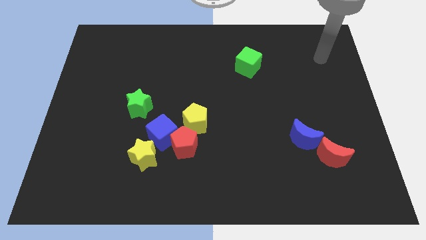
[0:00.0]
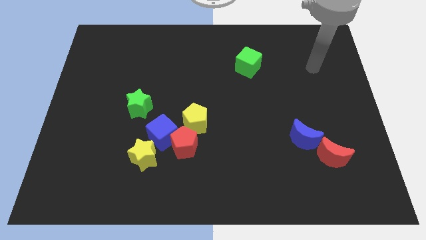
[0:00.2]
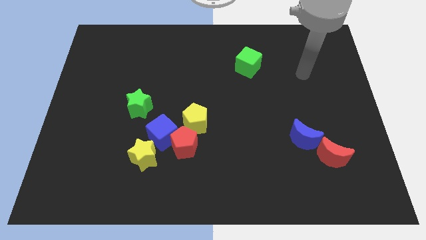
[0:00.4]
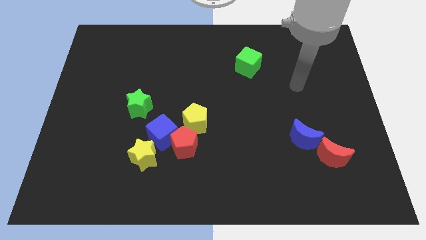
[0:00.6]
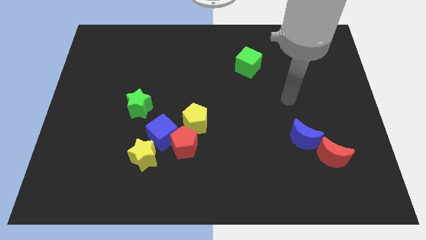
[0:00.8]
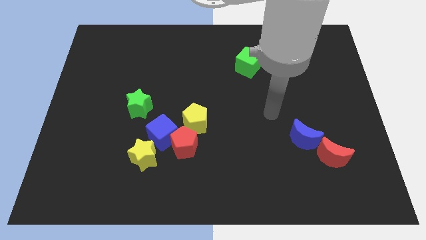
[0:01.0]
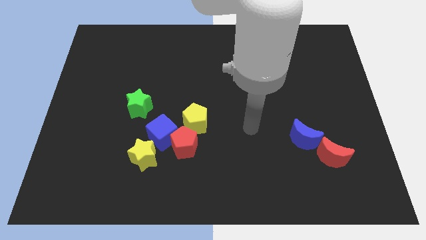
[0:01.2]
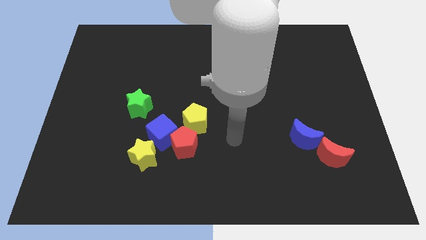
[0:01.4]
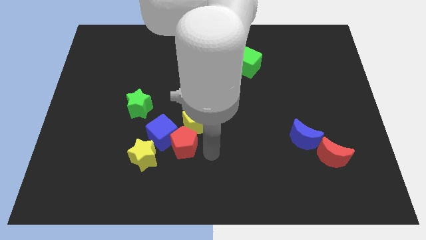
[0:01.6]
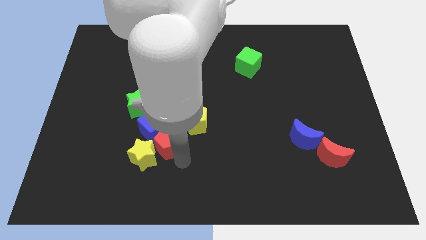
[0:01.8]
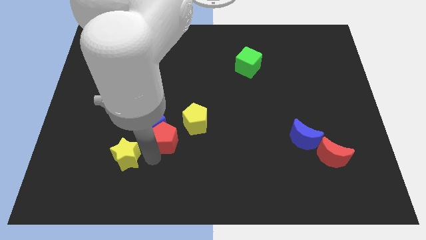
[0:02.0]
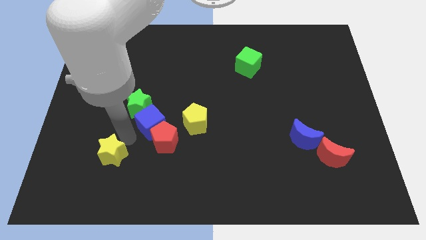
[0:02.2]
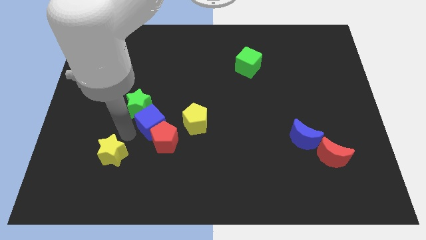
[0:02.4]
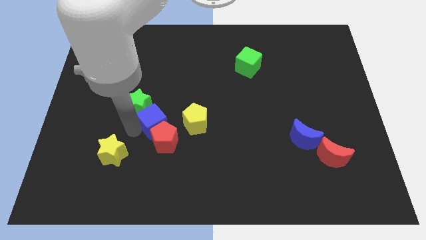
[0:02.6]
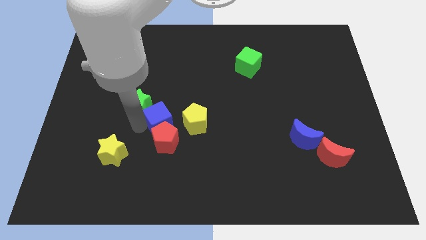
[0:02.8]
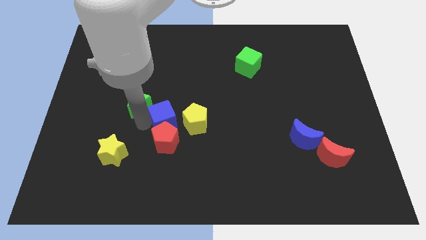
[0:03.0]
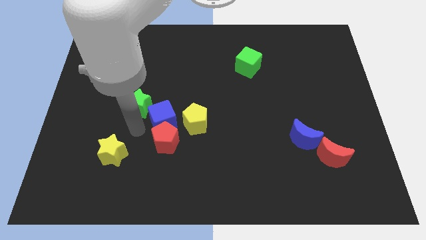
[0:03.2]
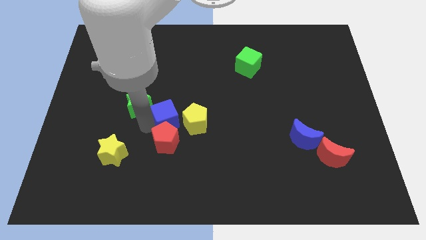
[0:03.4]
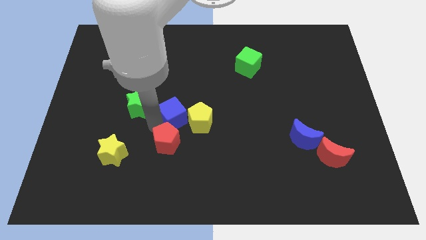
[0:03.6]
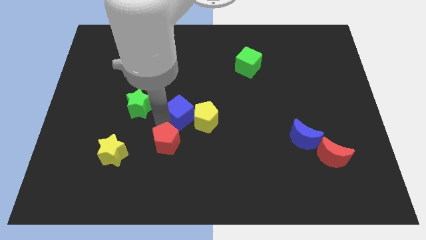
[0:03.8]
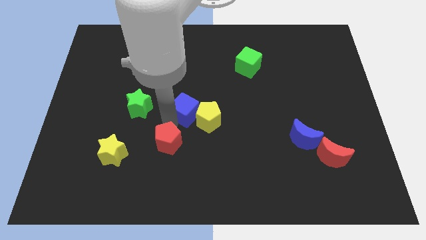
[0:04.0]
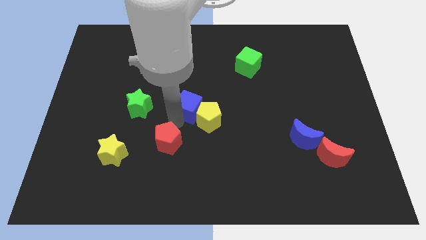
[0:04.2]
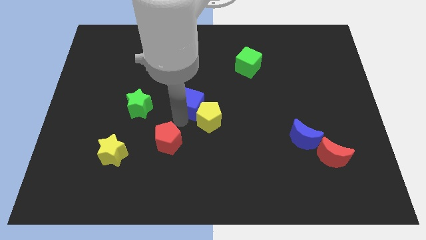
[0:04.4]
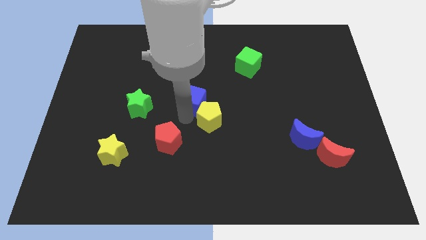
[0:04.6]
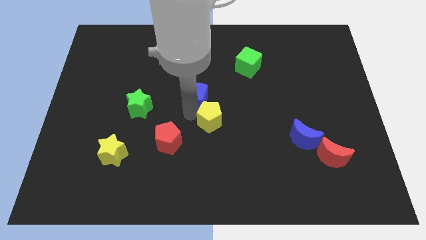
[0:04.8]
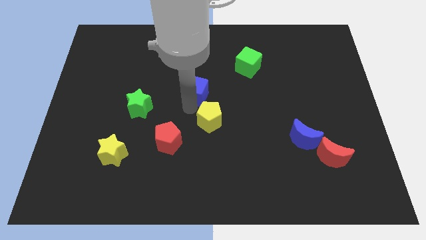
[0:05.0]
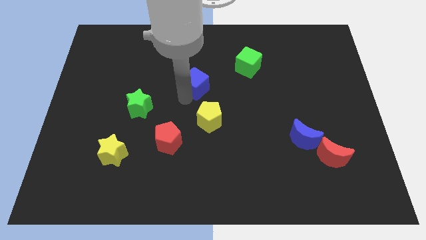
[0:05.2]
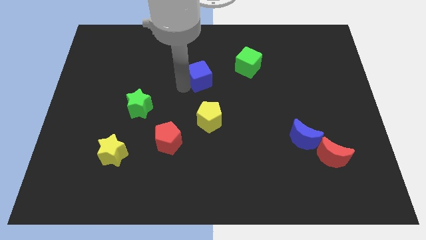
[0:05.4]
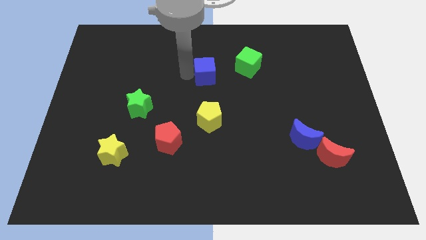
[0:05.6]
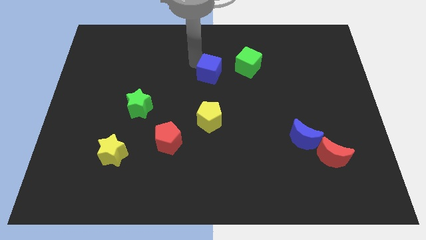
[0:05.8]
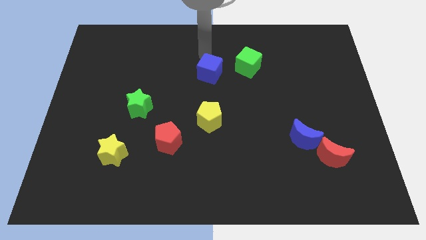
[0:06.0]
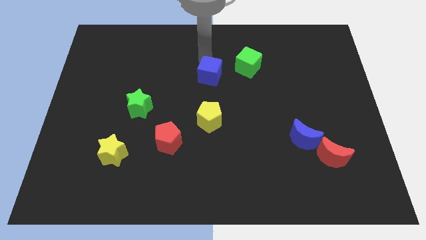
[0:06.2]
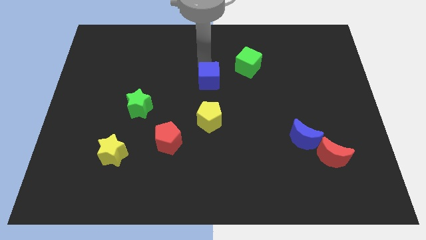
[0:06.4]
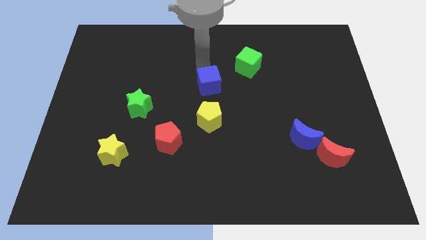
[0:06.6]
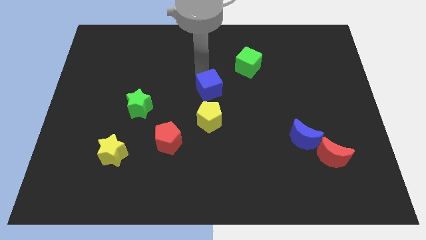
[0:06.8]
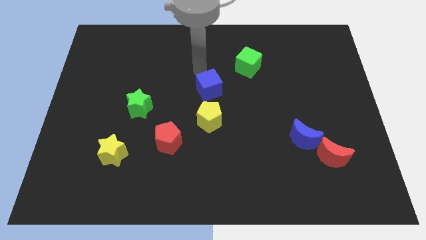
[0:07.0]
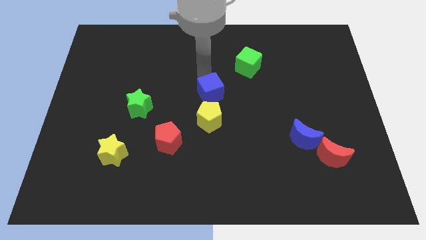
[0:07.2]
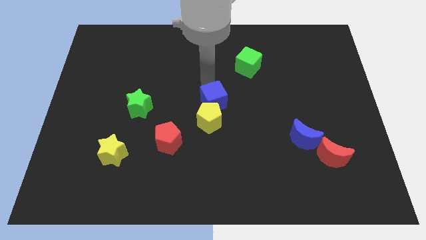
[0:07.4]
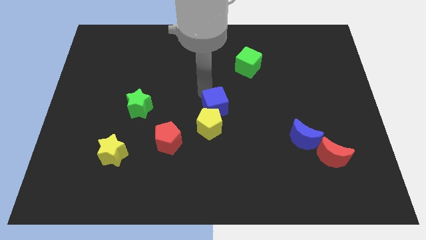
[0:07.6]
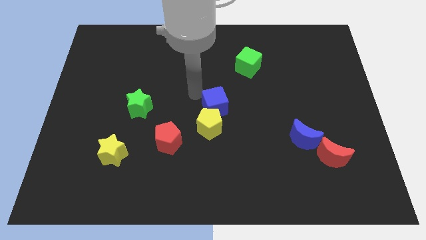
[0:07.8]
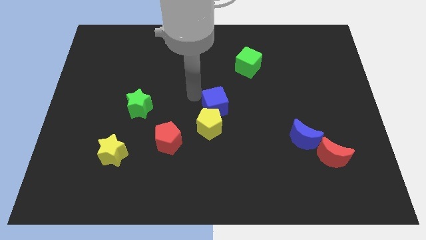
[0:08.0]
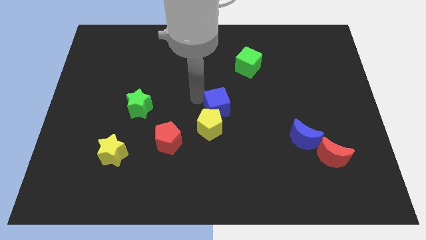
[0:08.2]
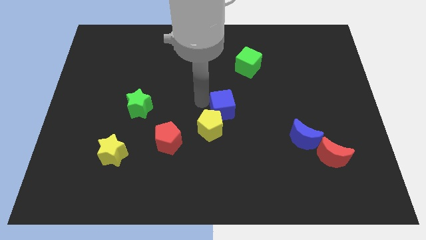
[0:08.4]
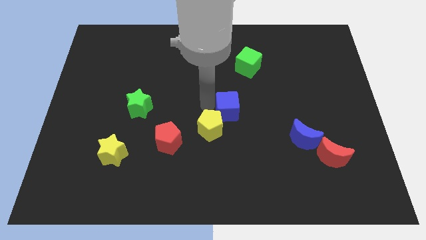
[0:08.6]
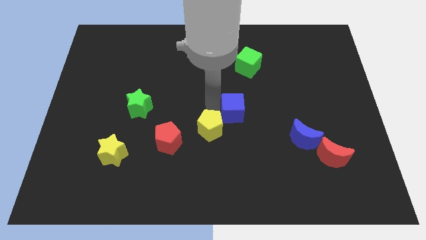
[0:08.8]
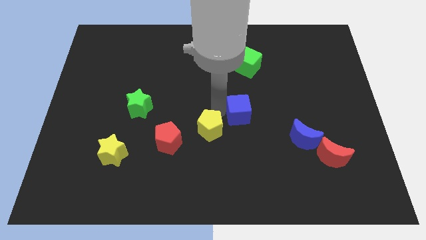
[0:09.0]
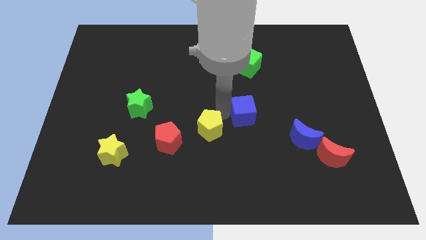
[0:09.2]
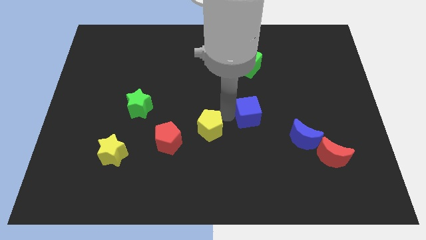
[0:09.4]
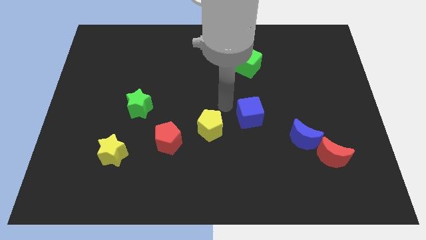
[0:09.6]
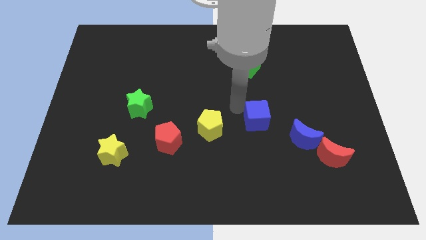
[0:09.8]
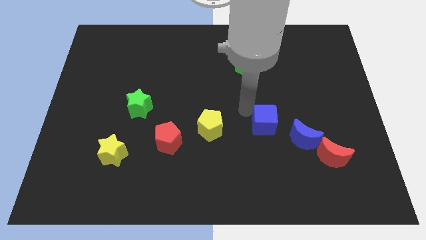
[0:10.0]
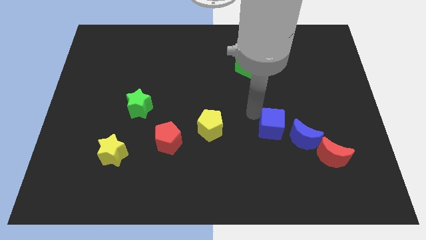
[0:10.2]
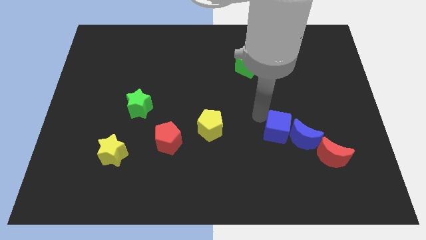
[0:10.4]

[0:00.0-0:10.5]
move the blue cube next to the blue moon

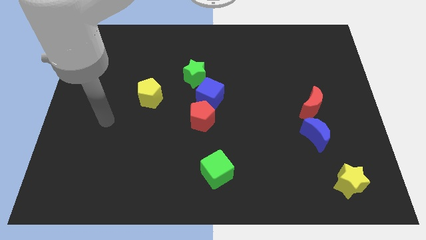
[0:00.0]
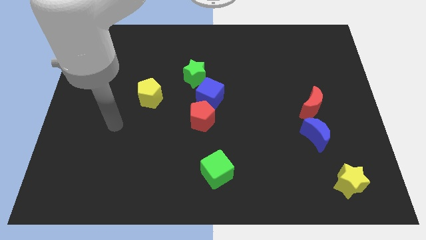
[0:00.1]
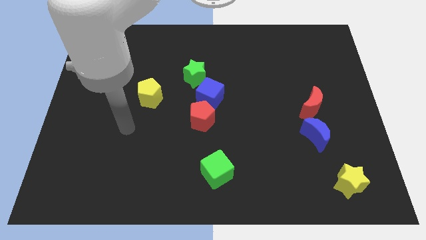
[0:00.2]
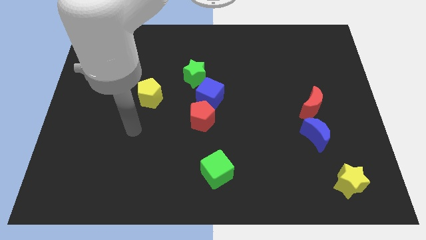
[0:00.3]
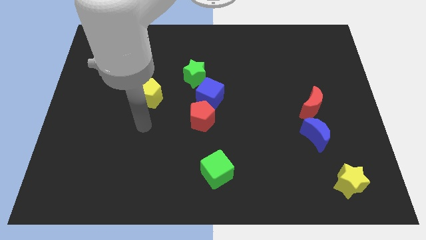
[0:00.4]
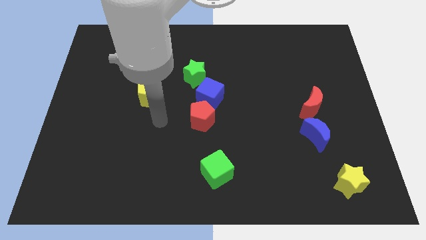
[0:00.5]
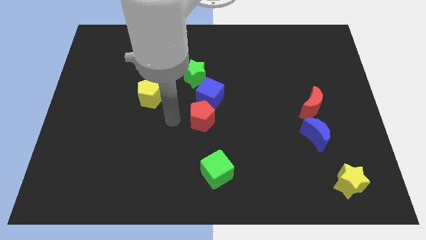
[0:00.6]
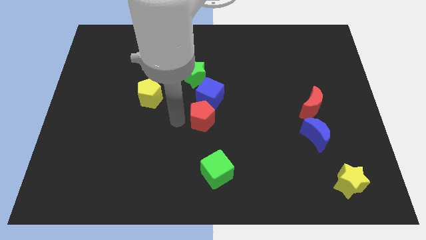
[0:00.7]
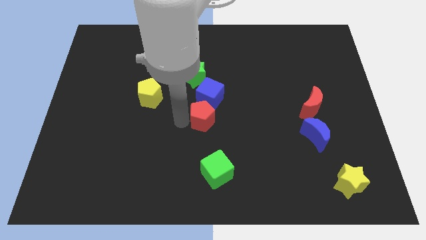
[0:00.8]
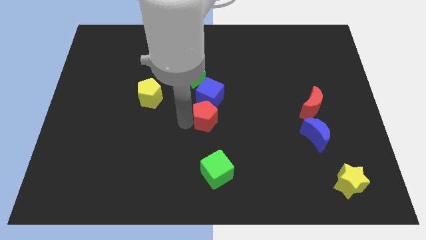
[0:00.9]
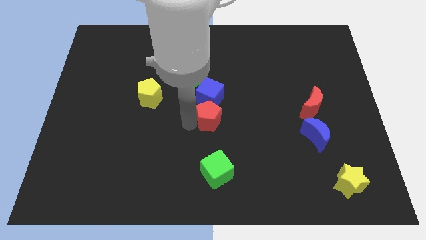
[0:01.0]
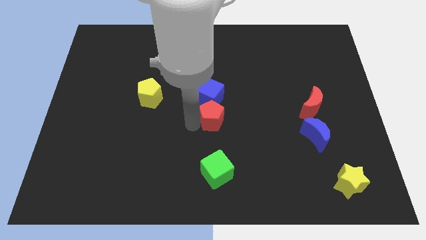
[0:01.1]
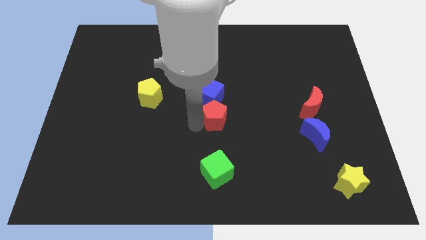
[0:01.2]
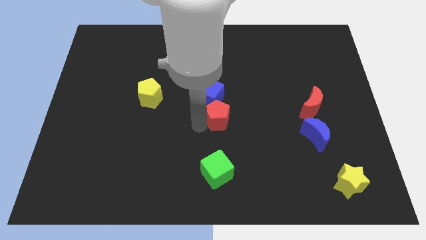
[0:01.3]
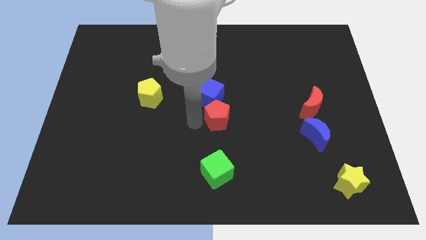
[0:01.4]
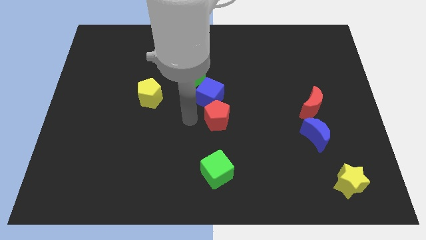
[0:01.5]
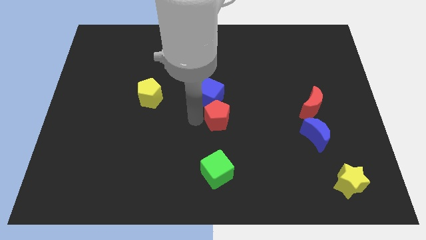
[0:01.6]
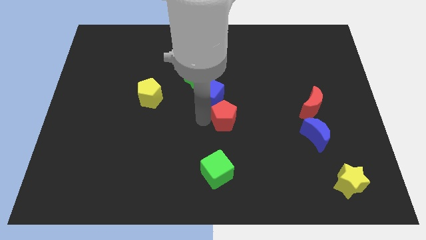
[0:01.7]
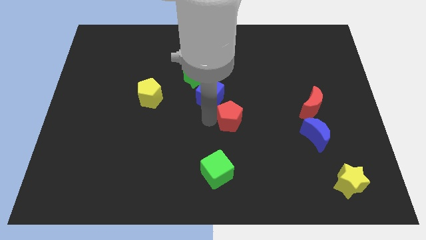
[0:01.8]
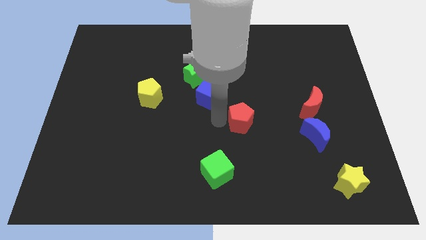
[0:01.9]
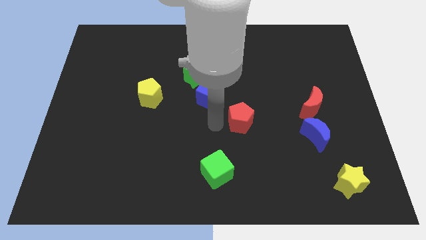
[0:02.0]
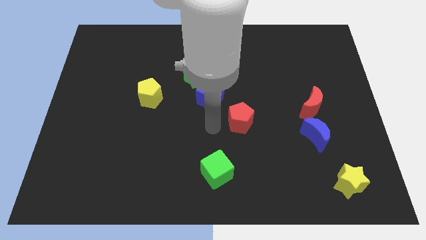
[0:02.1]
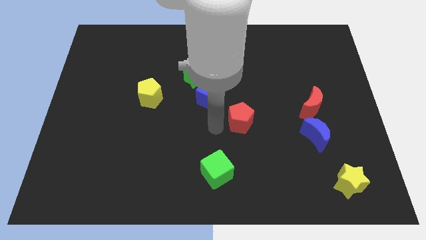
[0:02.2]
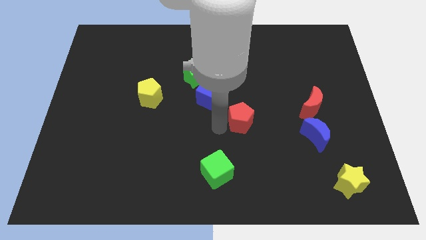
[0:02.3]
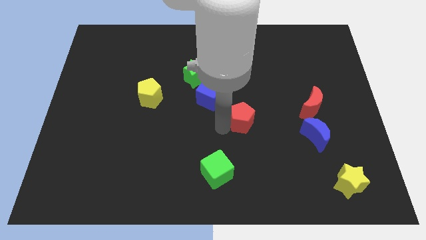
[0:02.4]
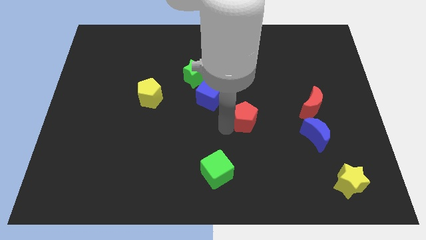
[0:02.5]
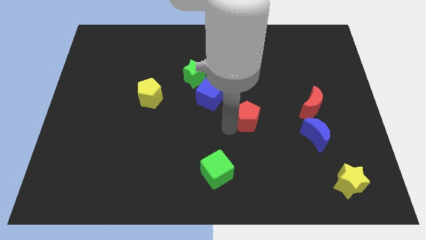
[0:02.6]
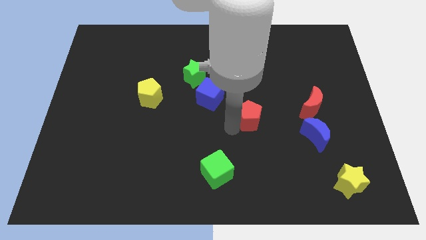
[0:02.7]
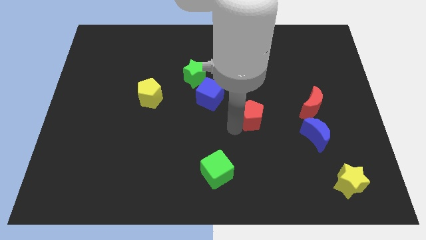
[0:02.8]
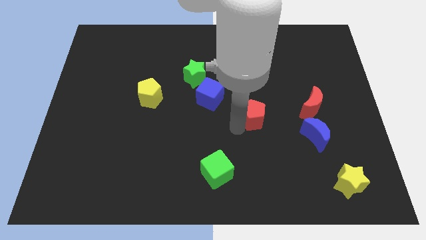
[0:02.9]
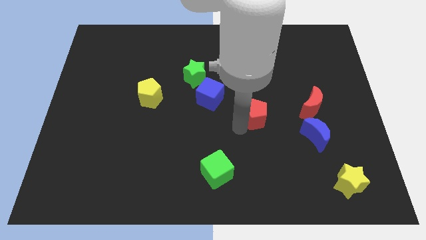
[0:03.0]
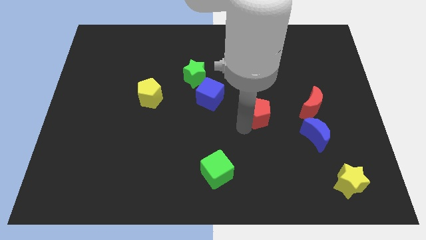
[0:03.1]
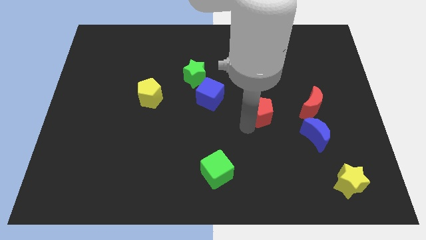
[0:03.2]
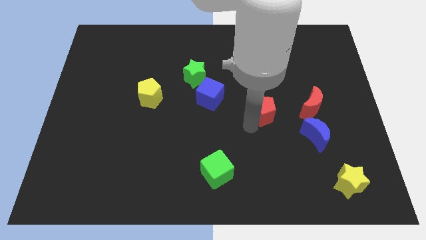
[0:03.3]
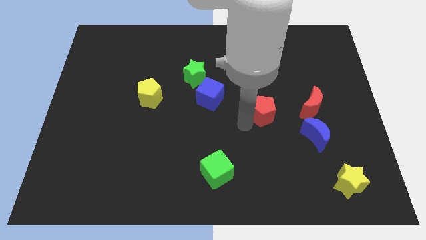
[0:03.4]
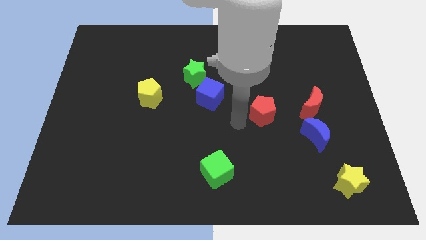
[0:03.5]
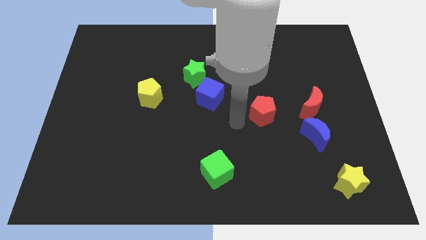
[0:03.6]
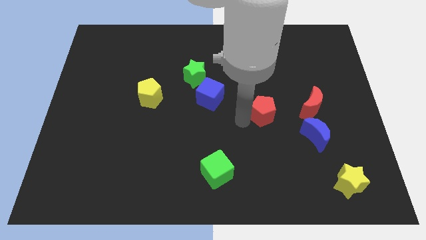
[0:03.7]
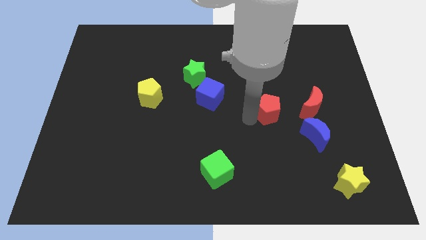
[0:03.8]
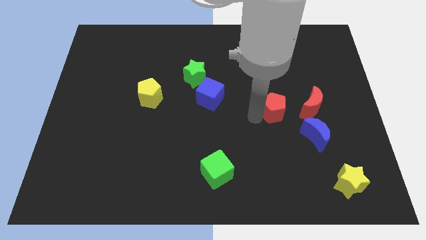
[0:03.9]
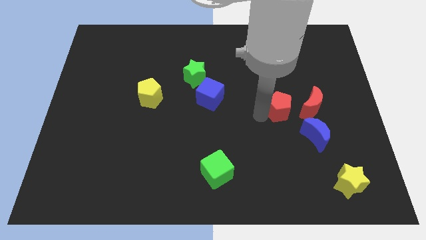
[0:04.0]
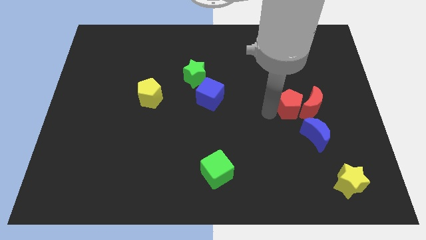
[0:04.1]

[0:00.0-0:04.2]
push the red pentagon to the red moon
